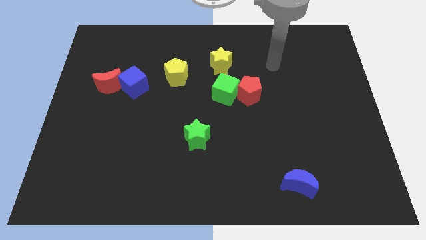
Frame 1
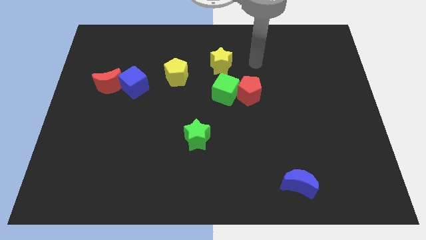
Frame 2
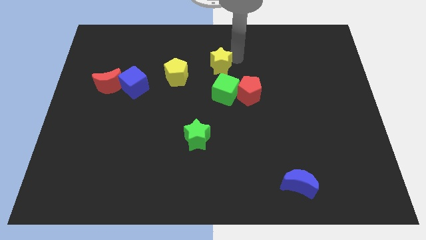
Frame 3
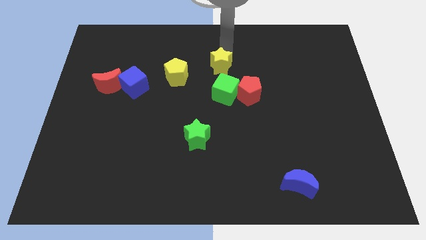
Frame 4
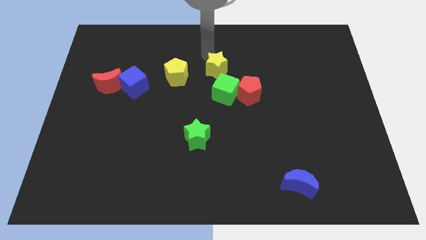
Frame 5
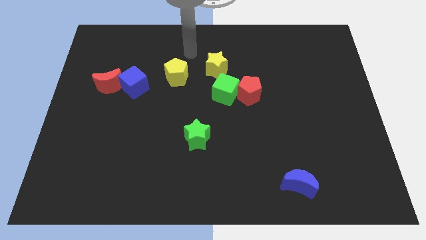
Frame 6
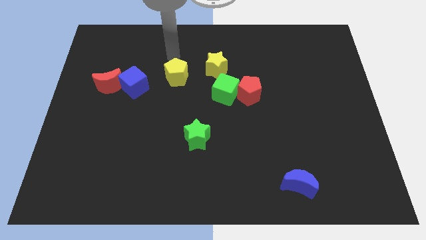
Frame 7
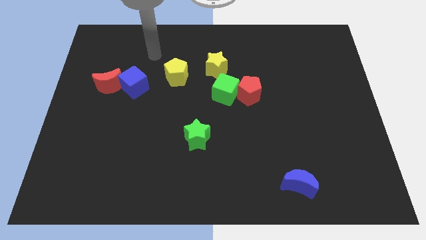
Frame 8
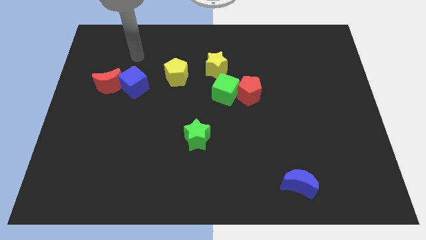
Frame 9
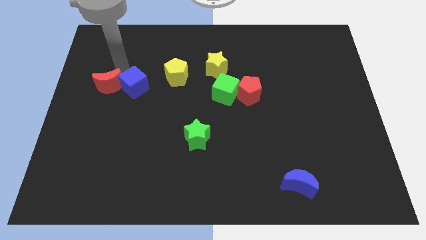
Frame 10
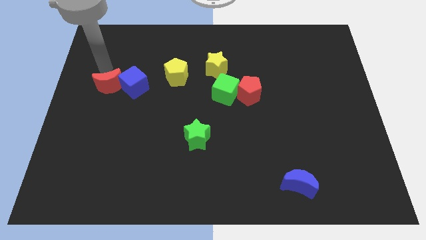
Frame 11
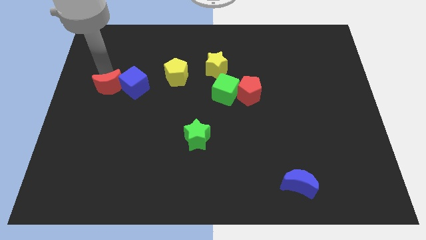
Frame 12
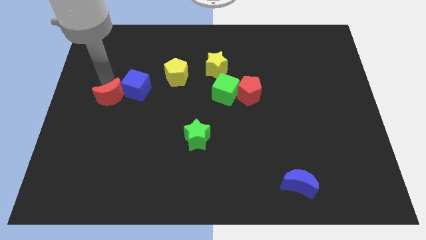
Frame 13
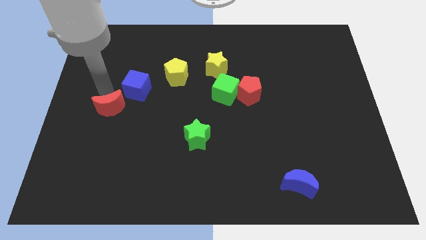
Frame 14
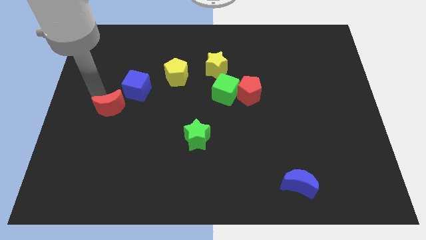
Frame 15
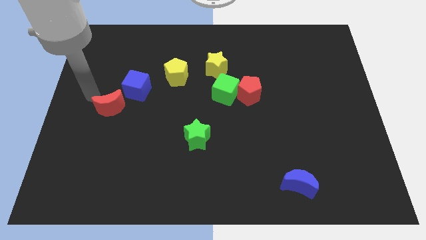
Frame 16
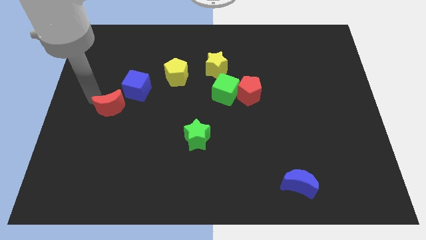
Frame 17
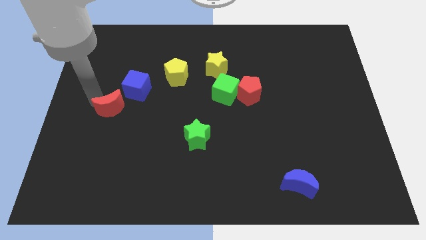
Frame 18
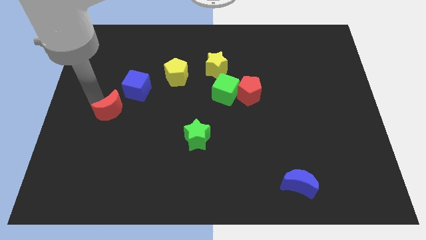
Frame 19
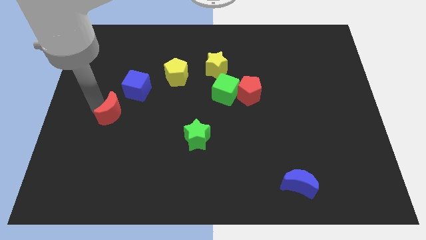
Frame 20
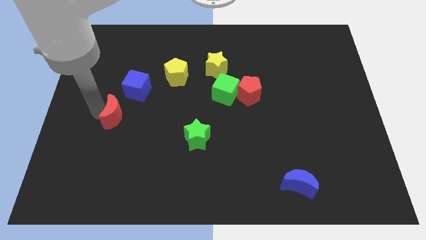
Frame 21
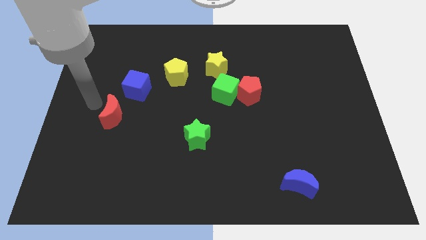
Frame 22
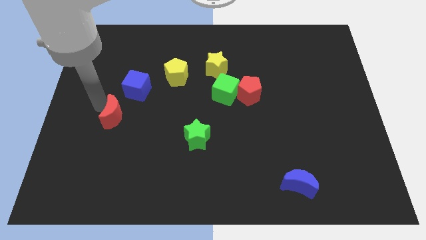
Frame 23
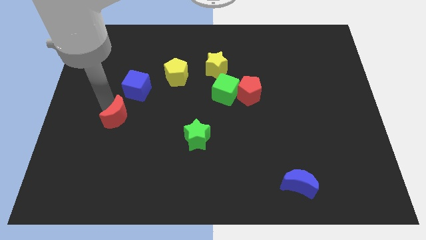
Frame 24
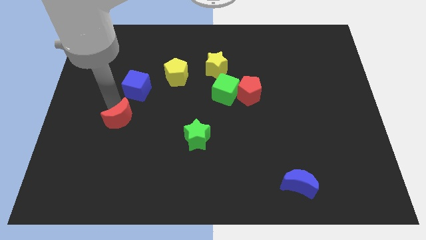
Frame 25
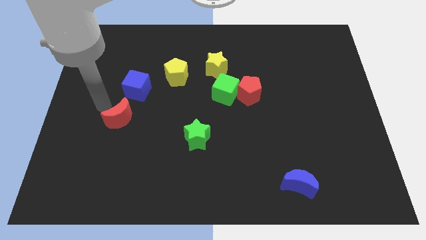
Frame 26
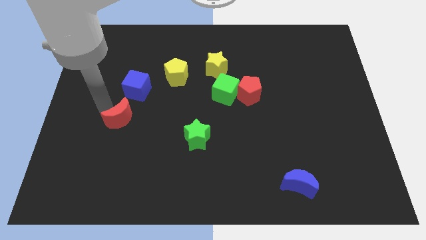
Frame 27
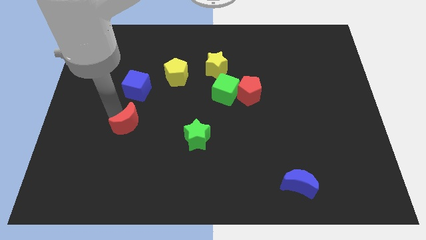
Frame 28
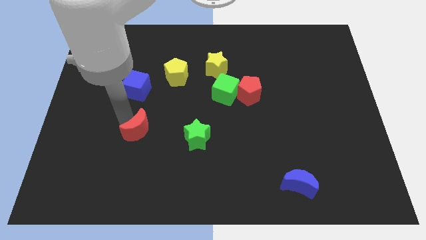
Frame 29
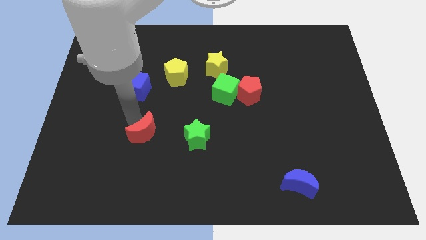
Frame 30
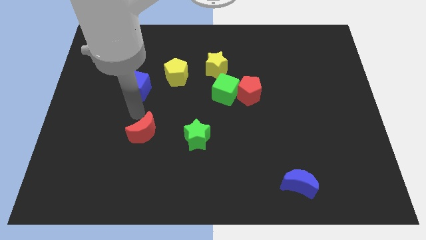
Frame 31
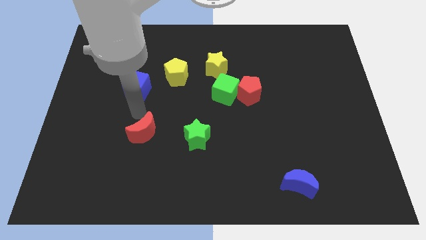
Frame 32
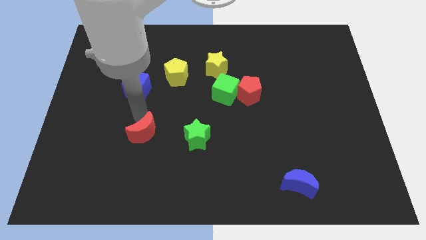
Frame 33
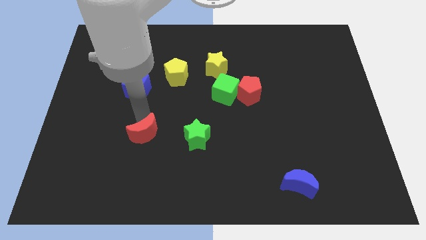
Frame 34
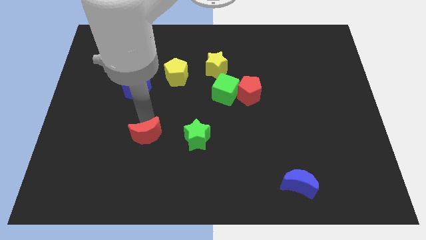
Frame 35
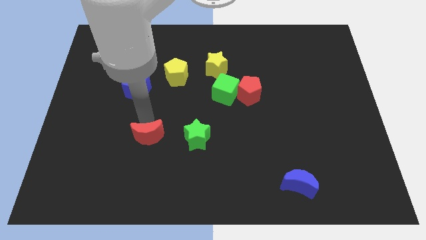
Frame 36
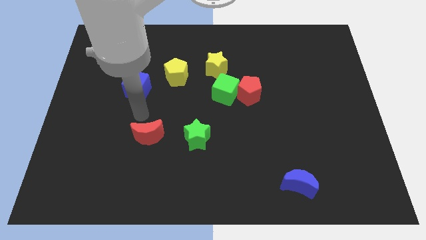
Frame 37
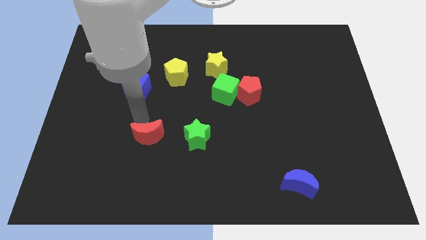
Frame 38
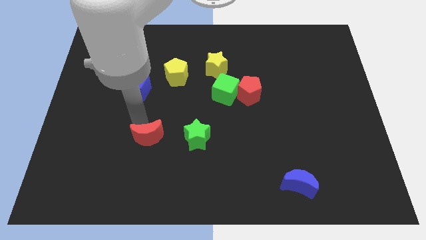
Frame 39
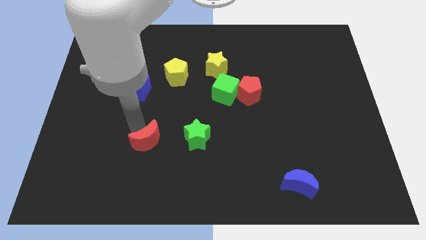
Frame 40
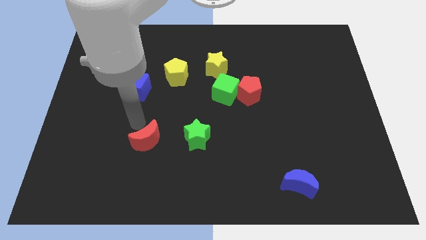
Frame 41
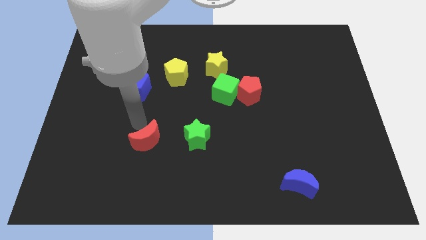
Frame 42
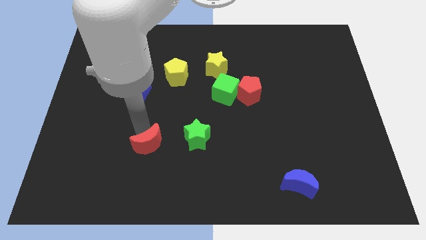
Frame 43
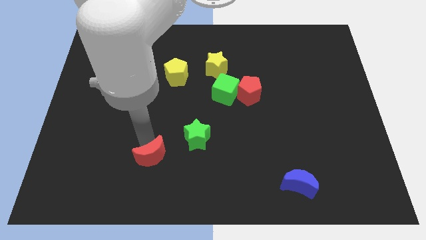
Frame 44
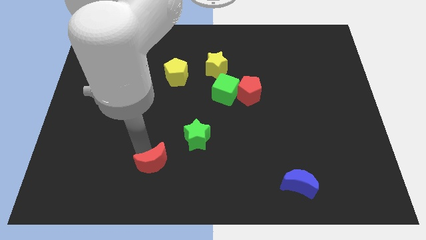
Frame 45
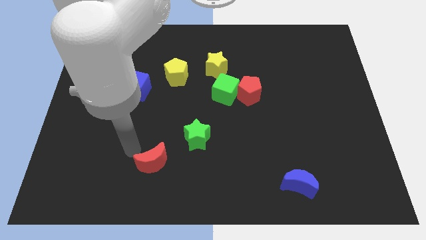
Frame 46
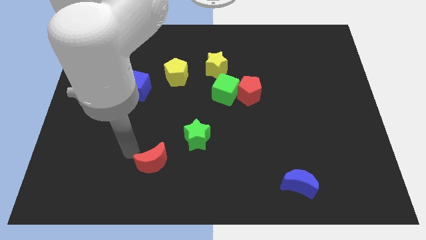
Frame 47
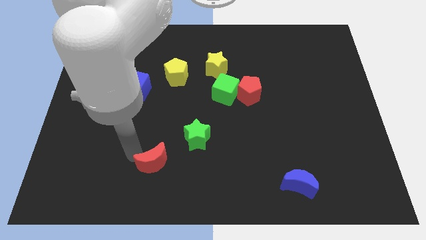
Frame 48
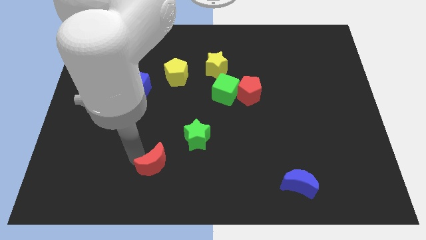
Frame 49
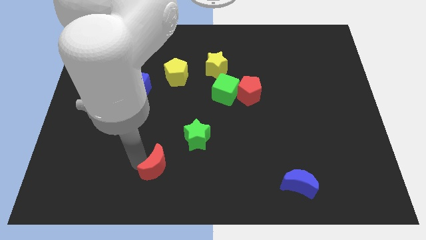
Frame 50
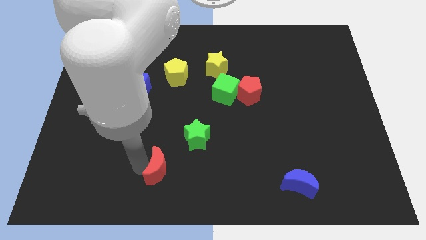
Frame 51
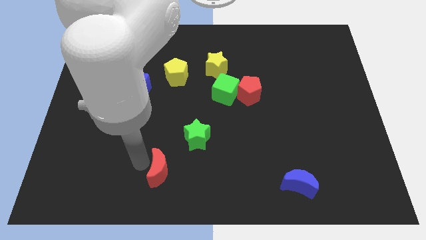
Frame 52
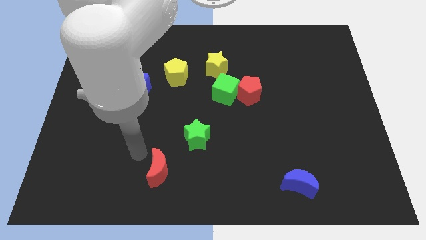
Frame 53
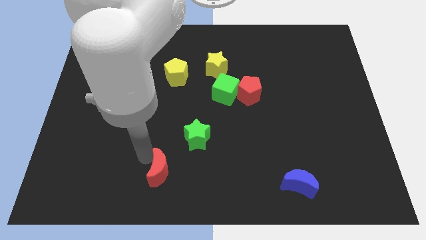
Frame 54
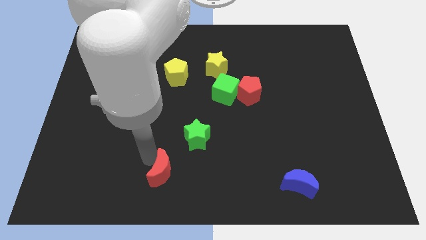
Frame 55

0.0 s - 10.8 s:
push the red moon to the bottom side
